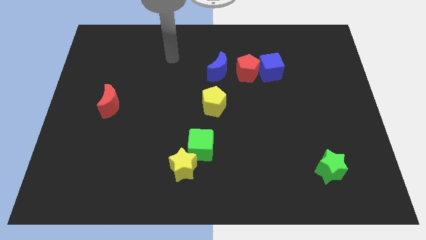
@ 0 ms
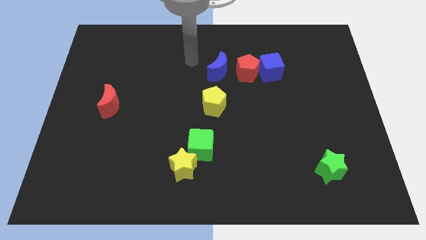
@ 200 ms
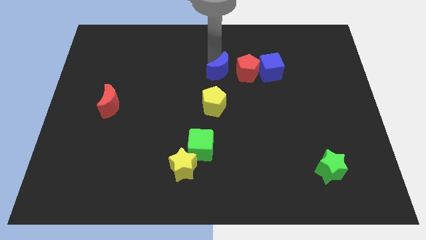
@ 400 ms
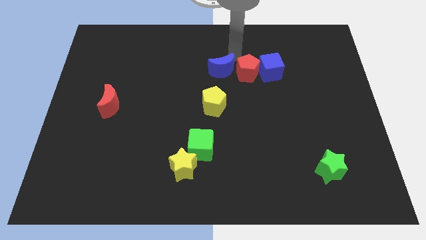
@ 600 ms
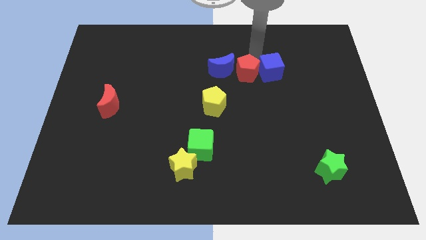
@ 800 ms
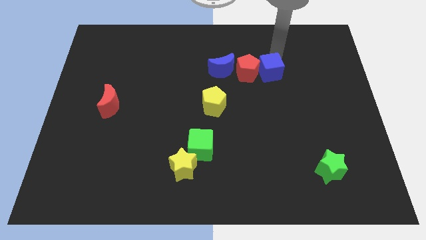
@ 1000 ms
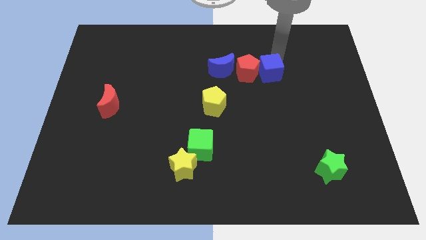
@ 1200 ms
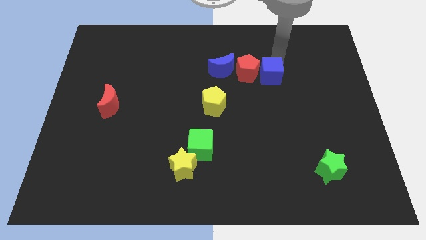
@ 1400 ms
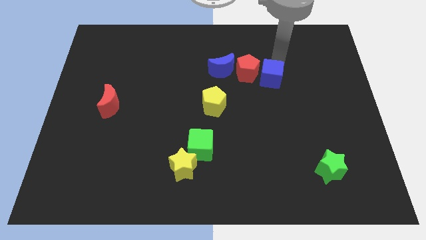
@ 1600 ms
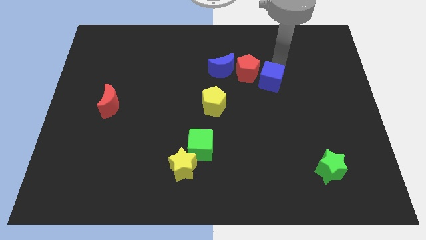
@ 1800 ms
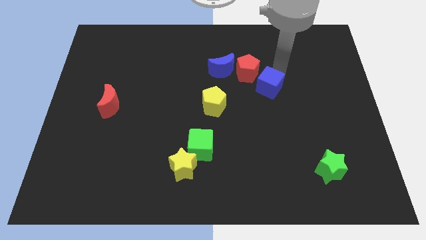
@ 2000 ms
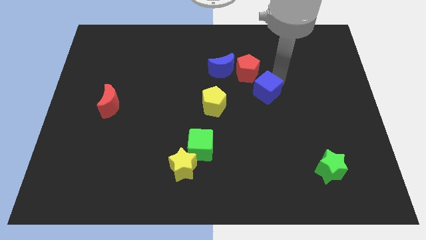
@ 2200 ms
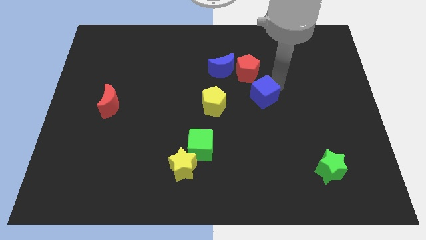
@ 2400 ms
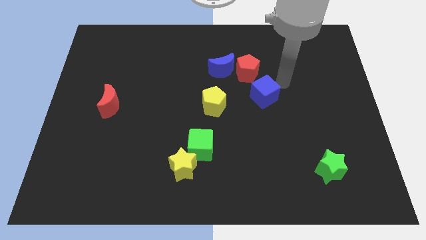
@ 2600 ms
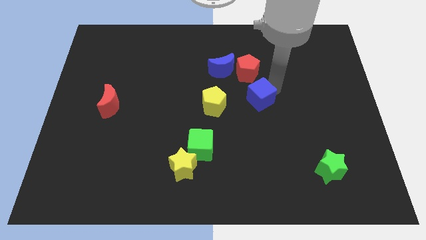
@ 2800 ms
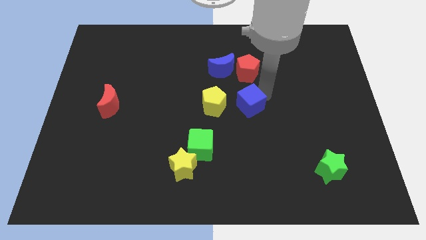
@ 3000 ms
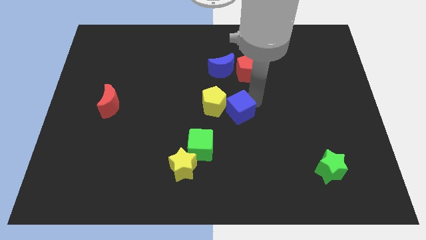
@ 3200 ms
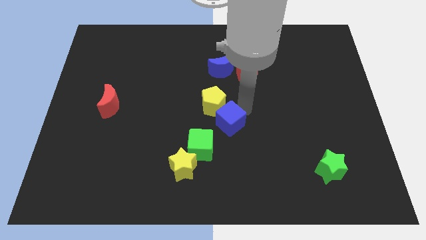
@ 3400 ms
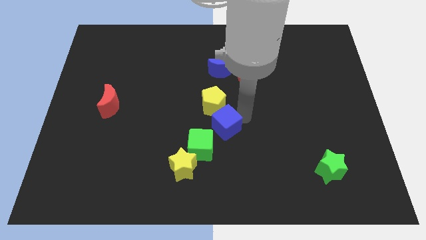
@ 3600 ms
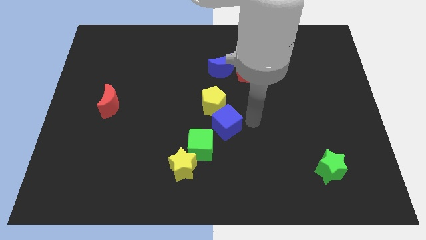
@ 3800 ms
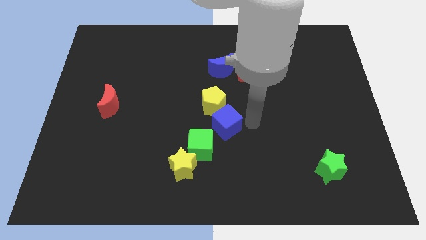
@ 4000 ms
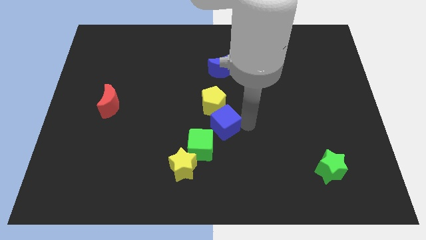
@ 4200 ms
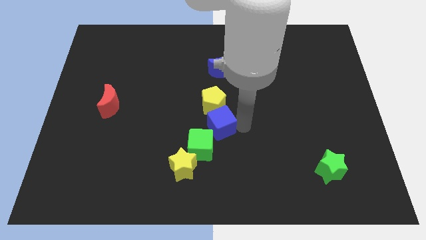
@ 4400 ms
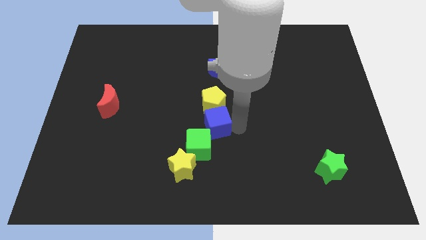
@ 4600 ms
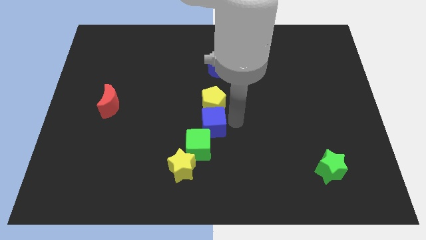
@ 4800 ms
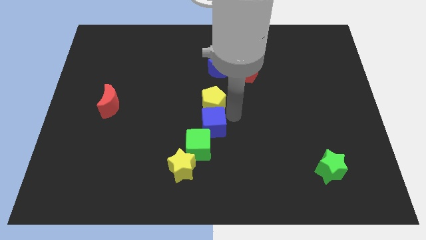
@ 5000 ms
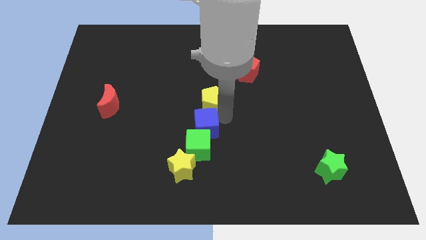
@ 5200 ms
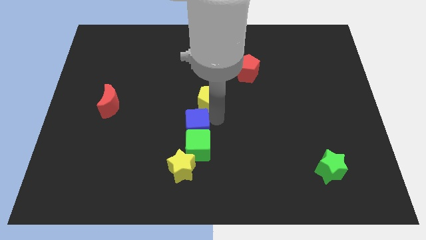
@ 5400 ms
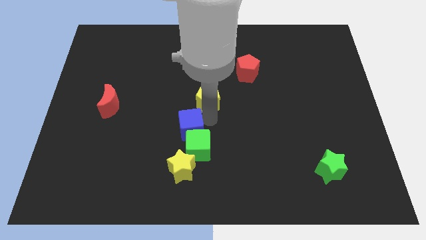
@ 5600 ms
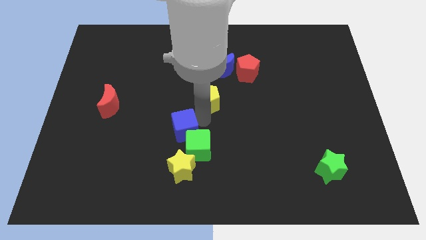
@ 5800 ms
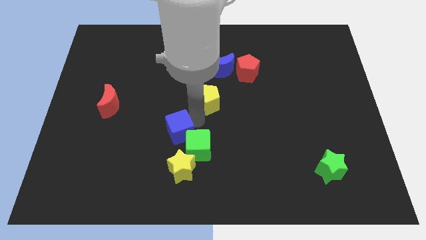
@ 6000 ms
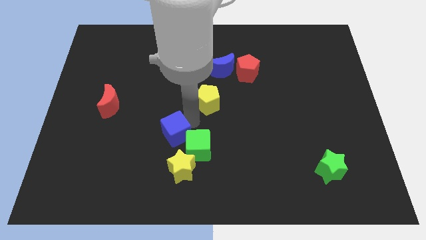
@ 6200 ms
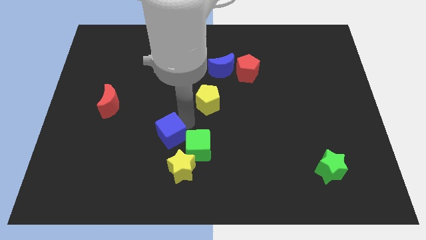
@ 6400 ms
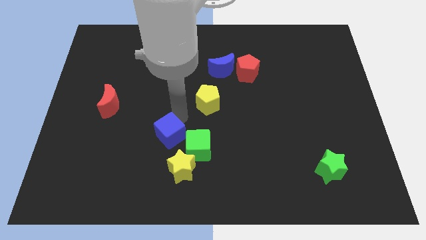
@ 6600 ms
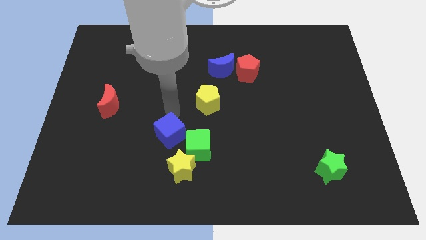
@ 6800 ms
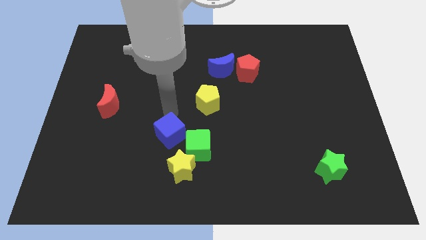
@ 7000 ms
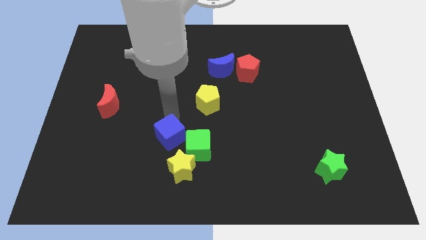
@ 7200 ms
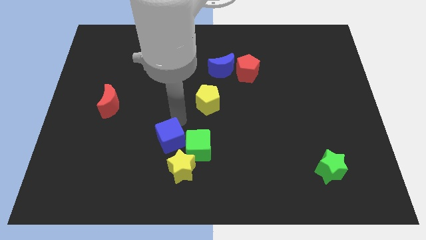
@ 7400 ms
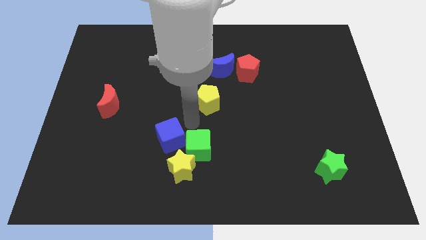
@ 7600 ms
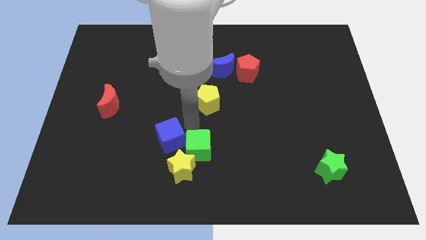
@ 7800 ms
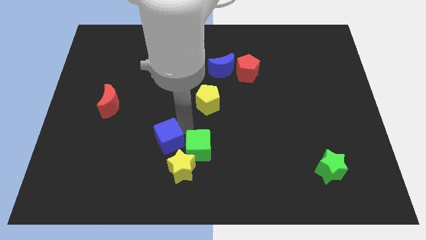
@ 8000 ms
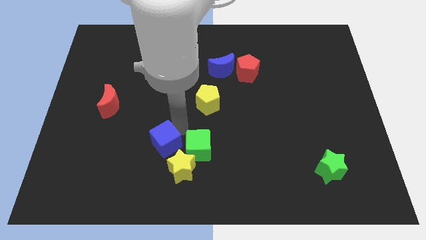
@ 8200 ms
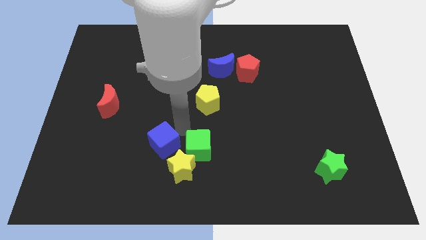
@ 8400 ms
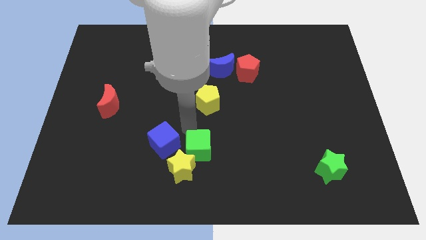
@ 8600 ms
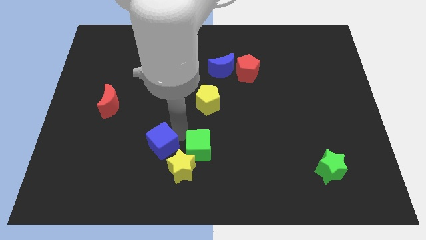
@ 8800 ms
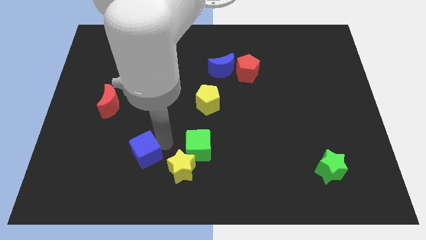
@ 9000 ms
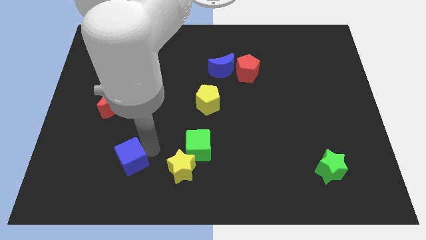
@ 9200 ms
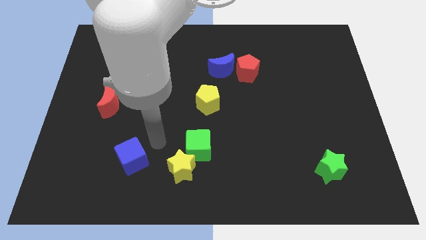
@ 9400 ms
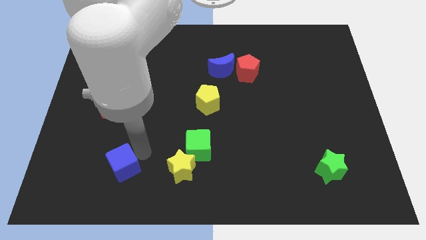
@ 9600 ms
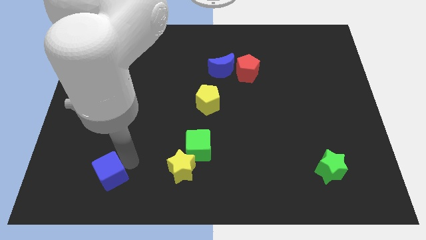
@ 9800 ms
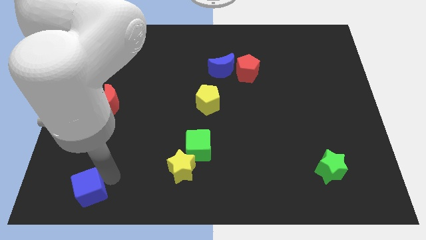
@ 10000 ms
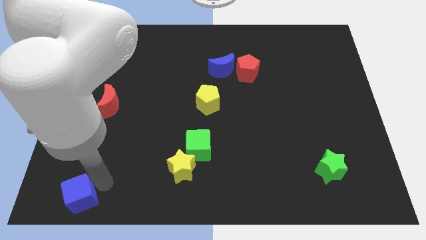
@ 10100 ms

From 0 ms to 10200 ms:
move the blue cube to the lower left corner

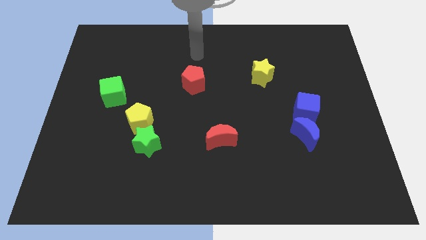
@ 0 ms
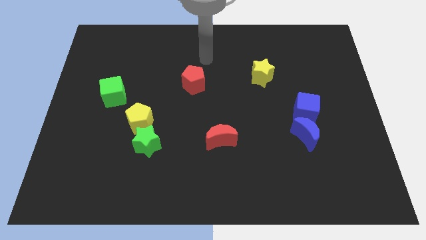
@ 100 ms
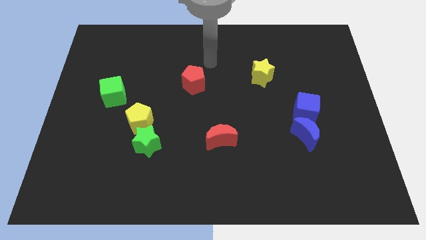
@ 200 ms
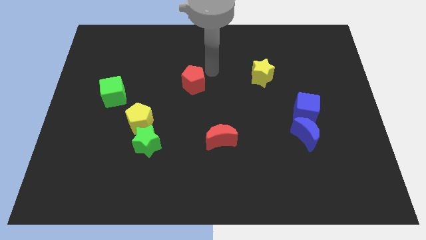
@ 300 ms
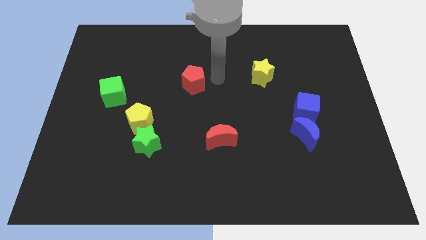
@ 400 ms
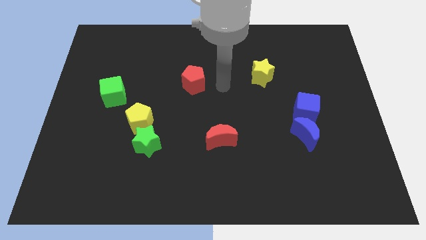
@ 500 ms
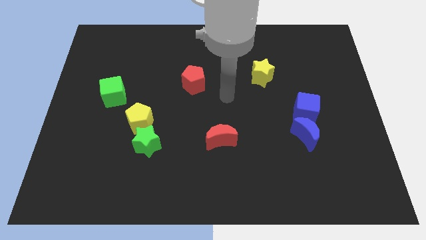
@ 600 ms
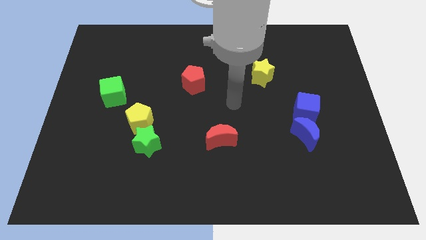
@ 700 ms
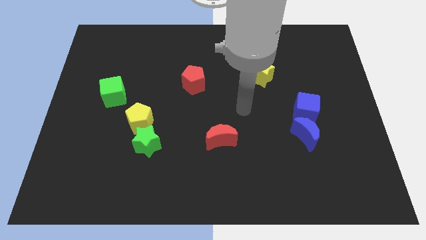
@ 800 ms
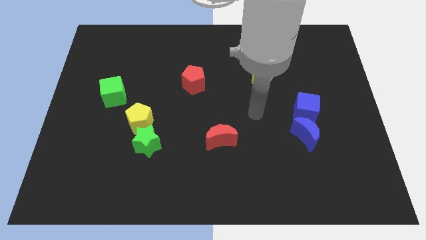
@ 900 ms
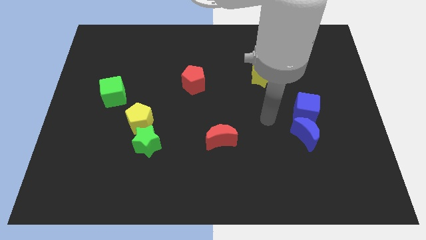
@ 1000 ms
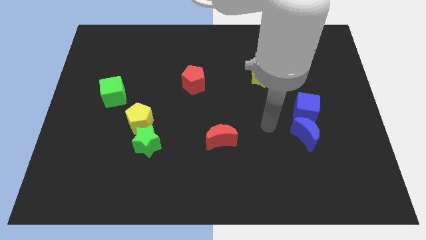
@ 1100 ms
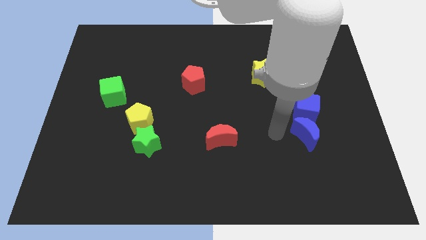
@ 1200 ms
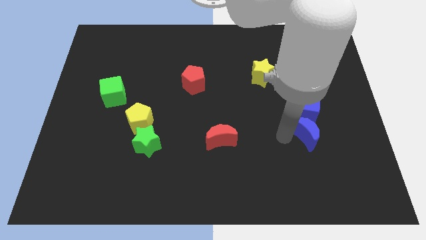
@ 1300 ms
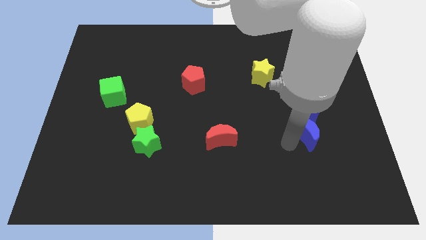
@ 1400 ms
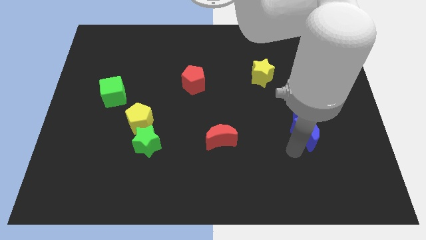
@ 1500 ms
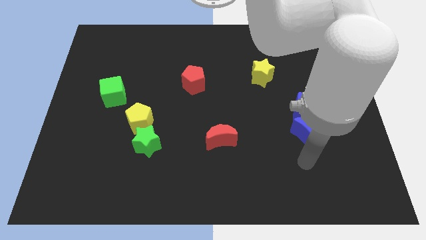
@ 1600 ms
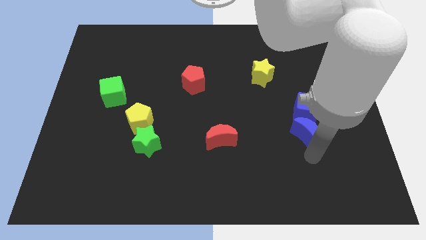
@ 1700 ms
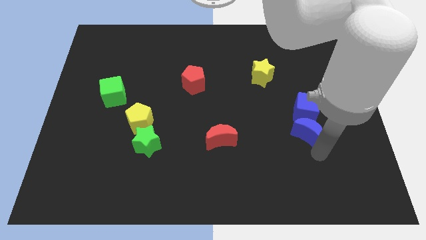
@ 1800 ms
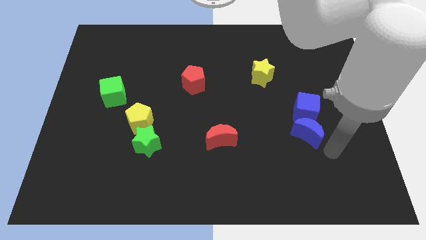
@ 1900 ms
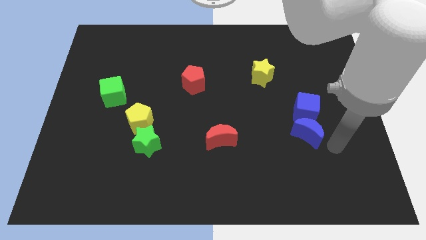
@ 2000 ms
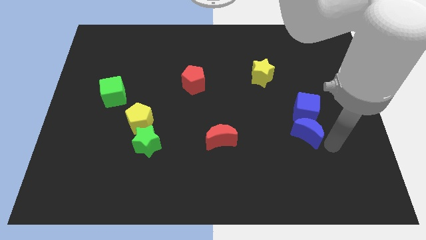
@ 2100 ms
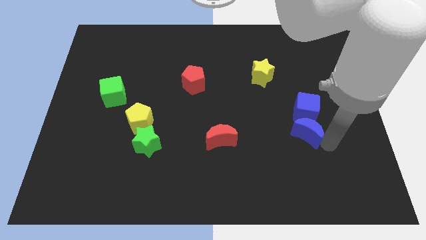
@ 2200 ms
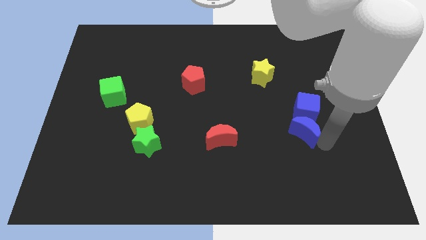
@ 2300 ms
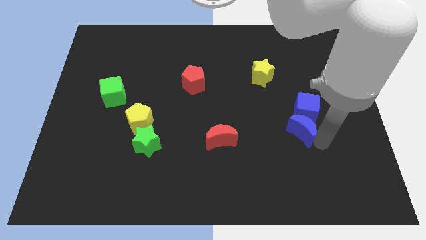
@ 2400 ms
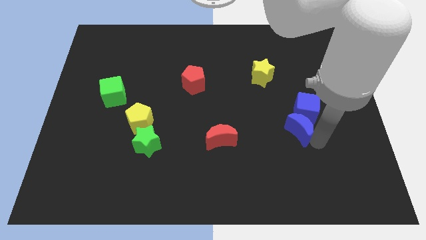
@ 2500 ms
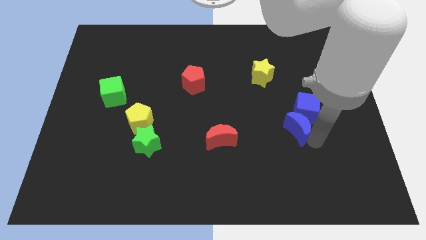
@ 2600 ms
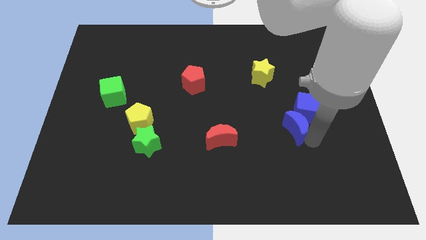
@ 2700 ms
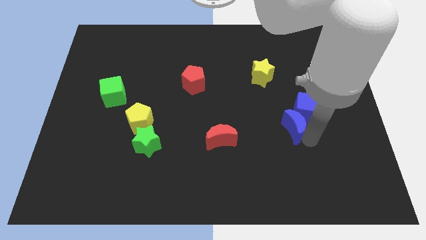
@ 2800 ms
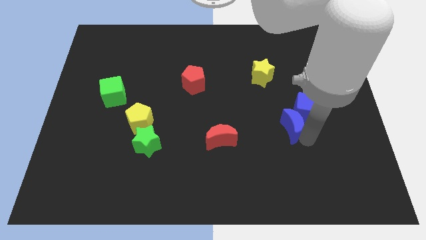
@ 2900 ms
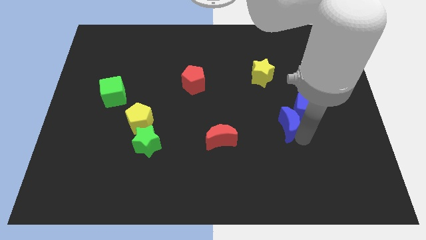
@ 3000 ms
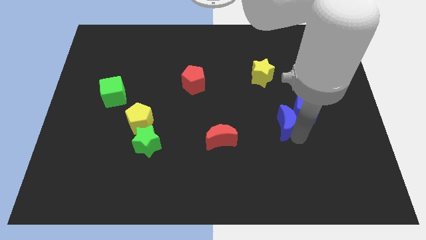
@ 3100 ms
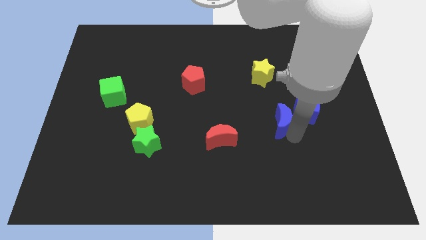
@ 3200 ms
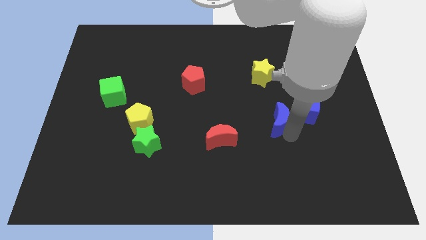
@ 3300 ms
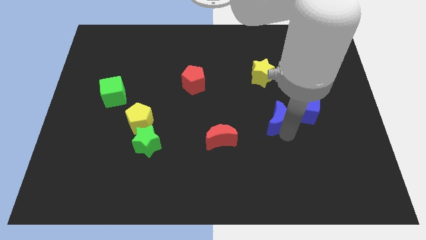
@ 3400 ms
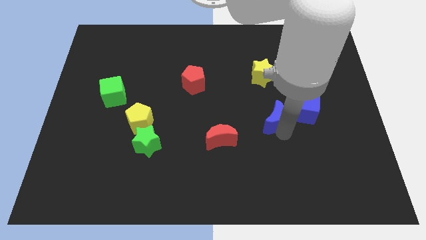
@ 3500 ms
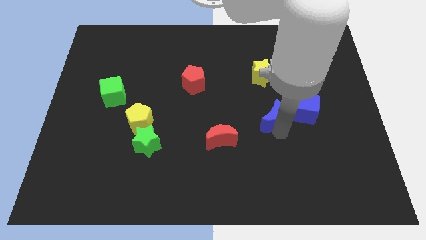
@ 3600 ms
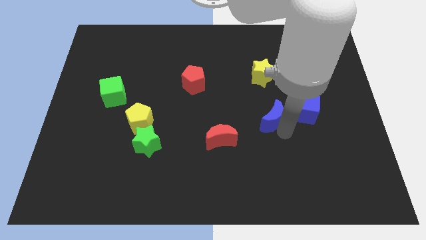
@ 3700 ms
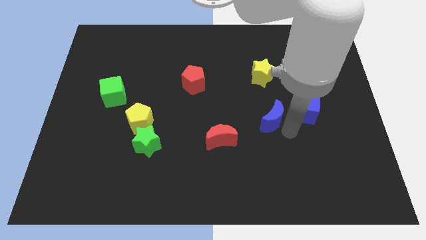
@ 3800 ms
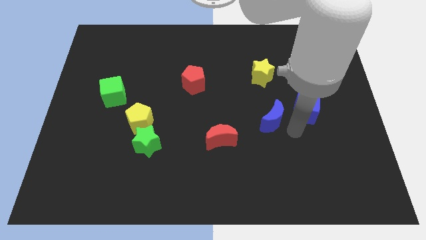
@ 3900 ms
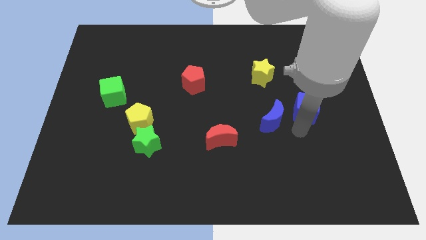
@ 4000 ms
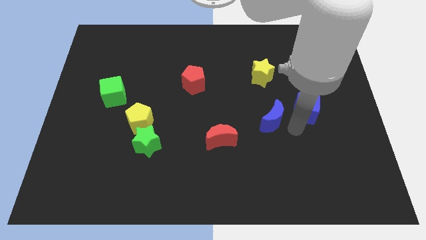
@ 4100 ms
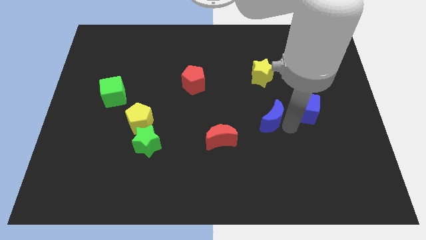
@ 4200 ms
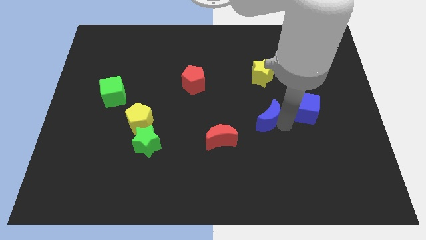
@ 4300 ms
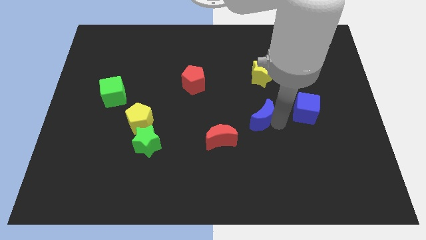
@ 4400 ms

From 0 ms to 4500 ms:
move the blue moon to the middle
